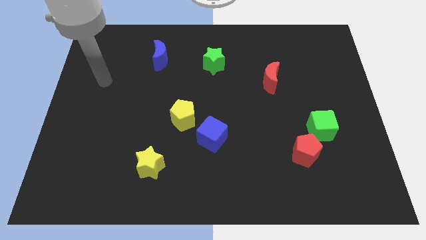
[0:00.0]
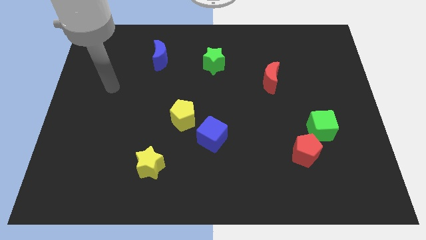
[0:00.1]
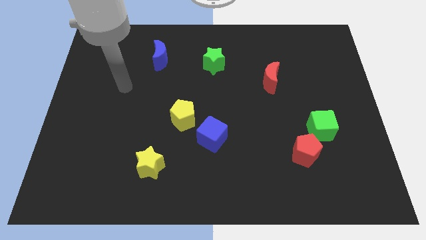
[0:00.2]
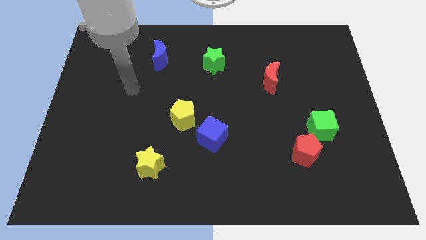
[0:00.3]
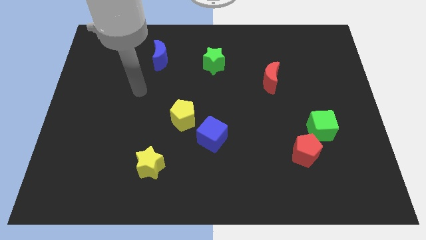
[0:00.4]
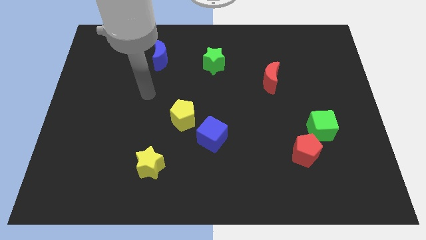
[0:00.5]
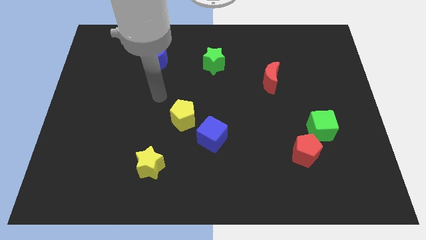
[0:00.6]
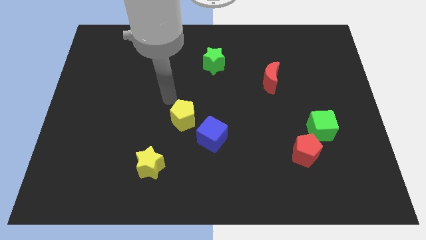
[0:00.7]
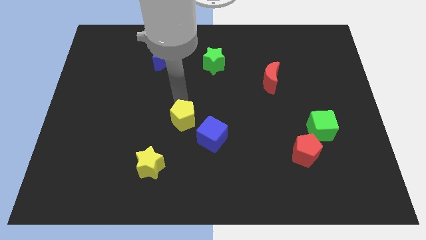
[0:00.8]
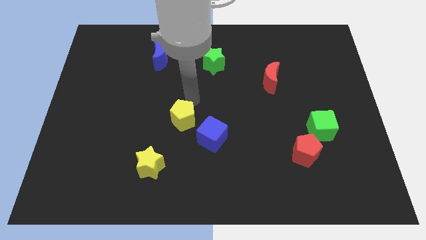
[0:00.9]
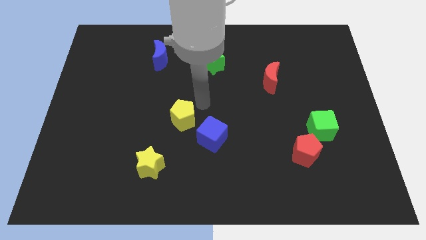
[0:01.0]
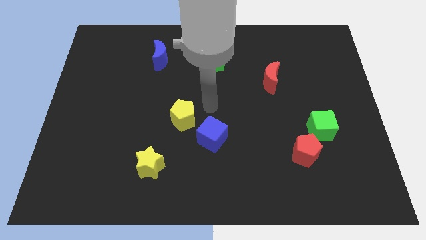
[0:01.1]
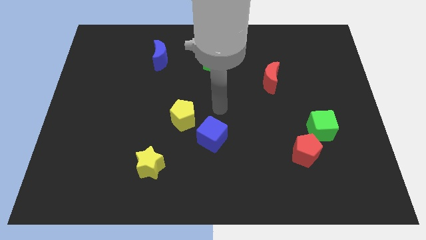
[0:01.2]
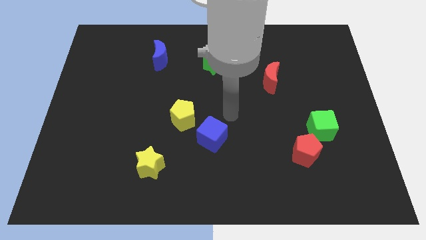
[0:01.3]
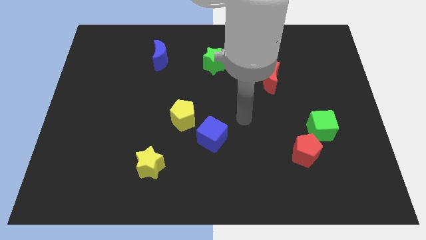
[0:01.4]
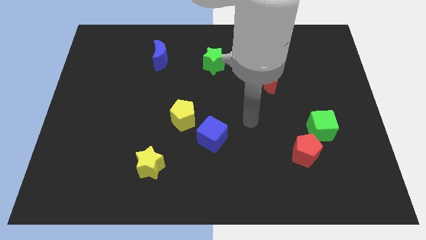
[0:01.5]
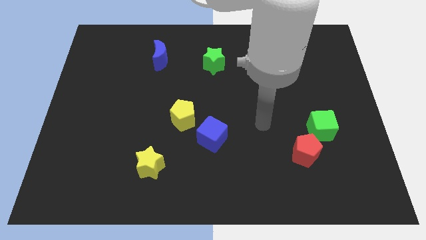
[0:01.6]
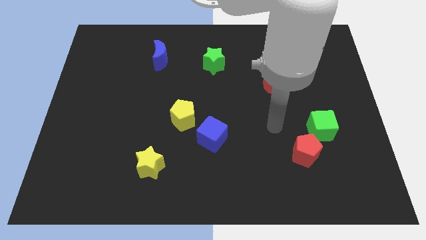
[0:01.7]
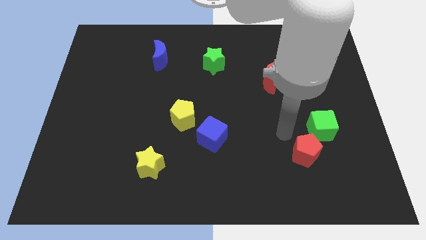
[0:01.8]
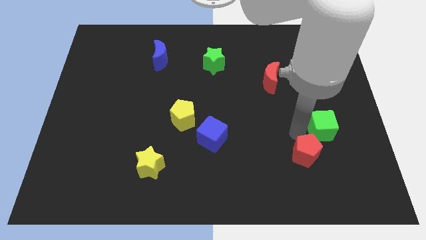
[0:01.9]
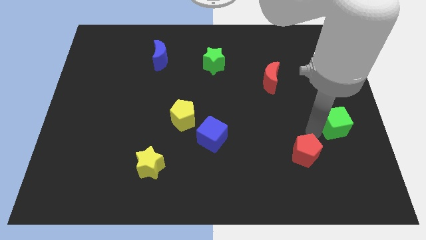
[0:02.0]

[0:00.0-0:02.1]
move the red pentagon away from the green cube

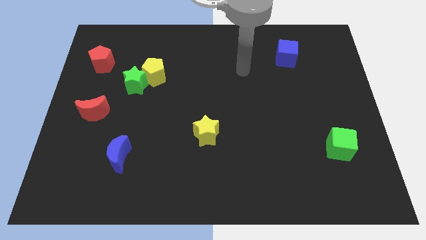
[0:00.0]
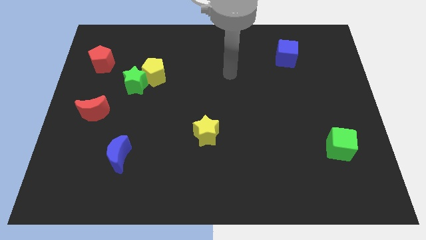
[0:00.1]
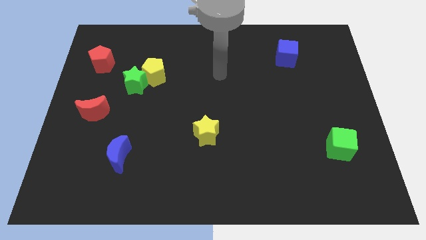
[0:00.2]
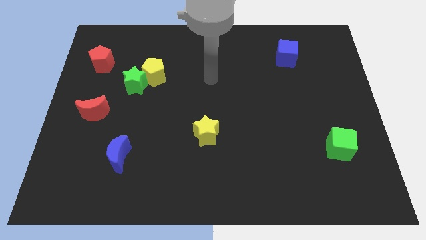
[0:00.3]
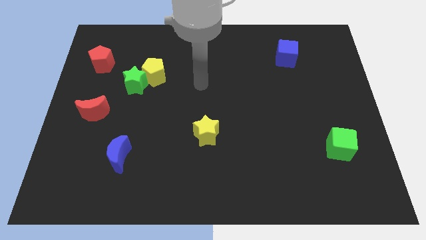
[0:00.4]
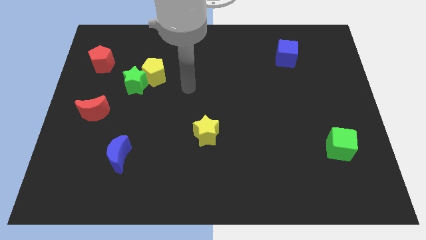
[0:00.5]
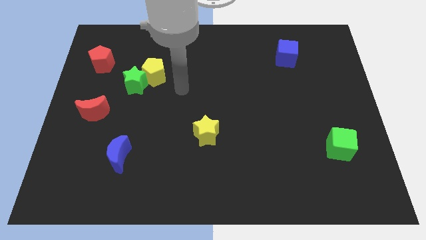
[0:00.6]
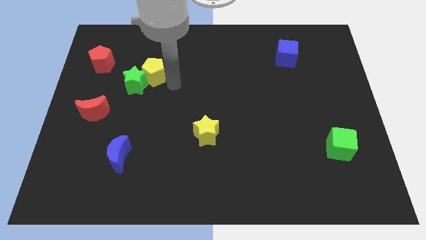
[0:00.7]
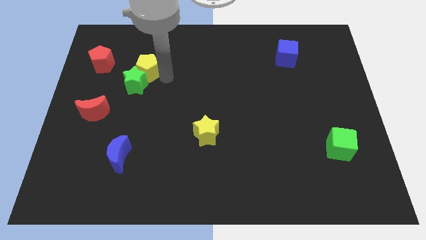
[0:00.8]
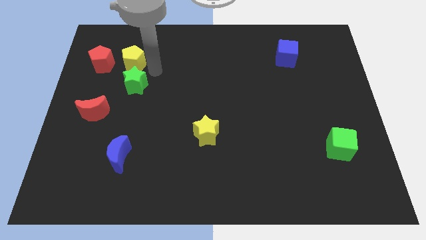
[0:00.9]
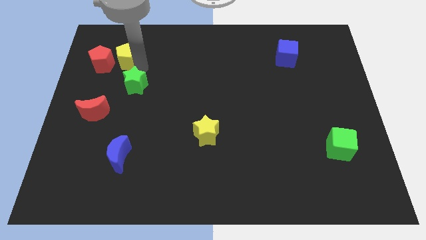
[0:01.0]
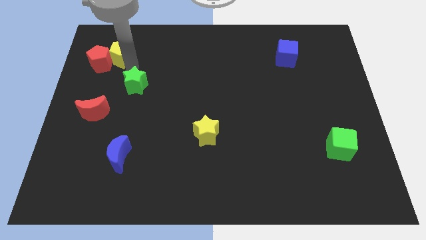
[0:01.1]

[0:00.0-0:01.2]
pull the green star apart from the yellow pentagon

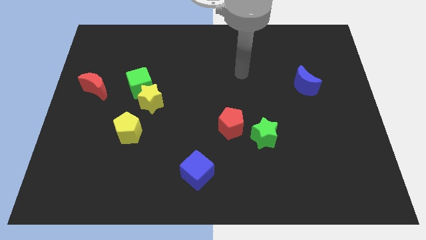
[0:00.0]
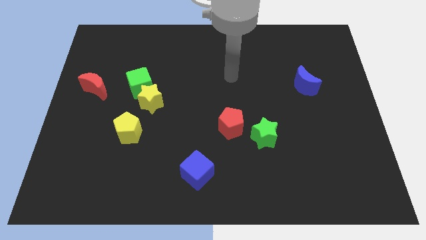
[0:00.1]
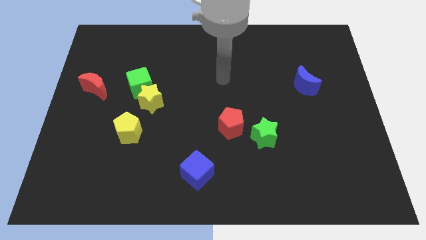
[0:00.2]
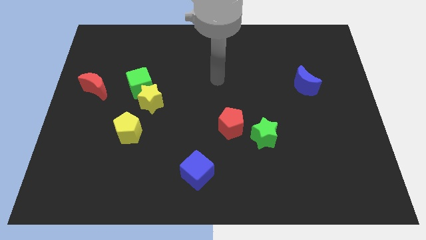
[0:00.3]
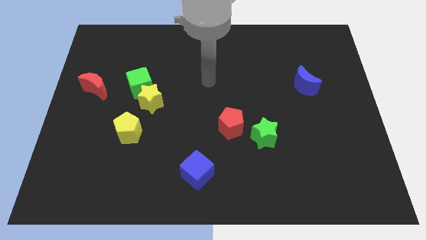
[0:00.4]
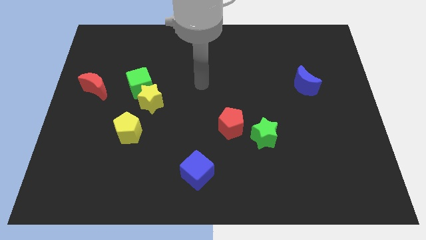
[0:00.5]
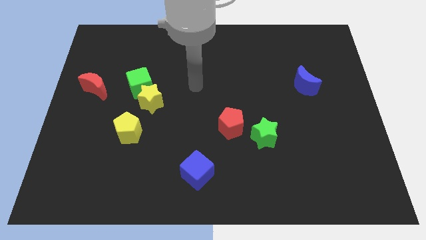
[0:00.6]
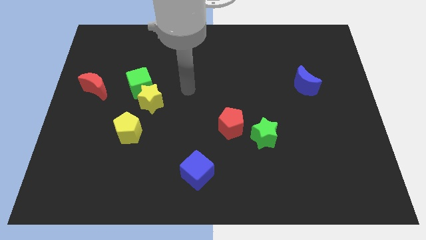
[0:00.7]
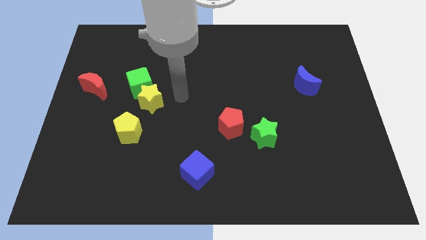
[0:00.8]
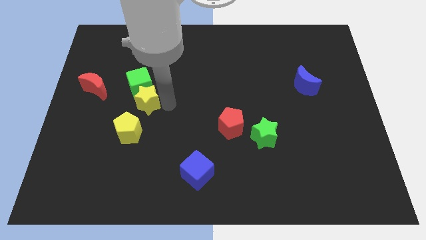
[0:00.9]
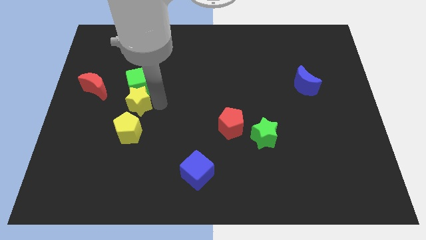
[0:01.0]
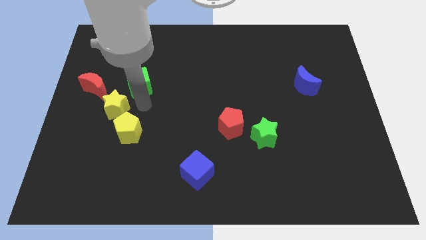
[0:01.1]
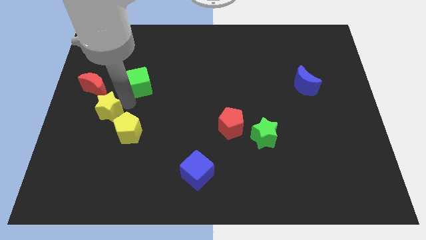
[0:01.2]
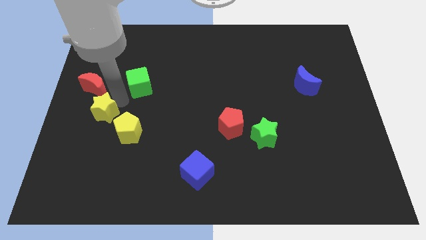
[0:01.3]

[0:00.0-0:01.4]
separate the green cube from the yellow star

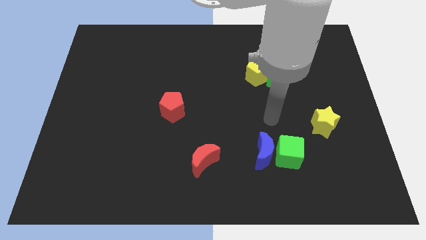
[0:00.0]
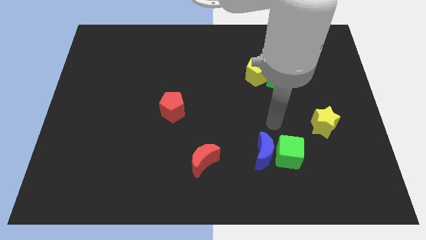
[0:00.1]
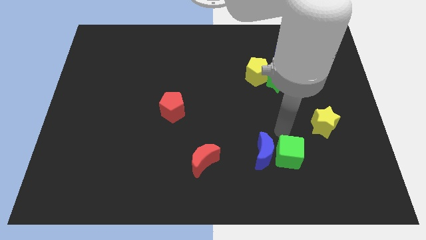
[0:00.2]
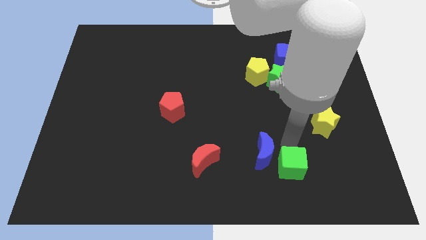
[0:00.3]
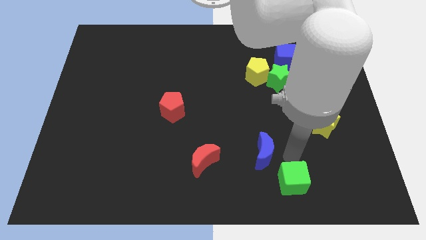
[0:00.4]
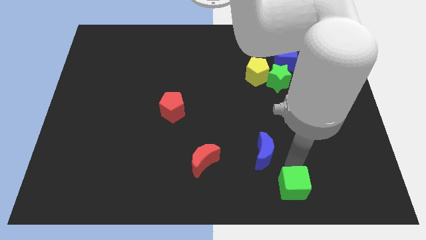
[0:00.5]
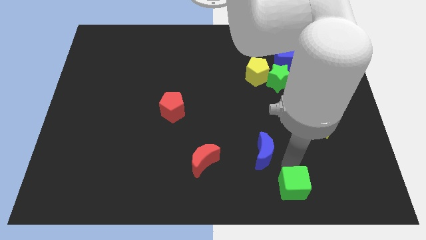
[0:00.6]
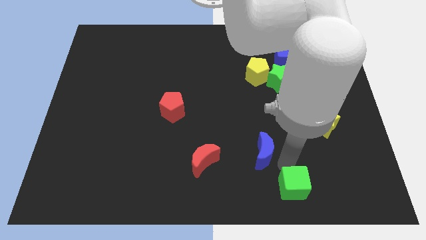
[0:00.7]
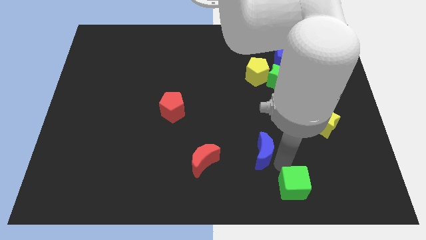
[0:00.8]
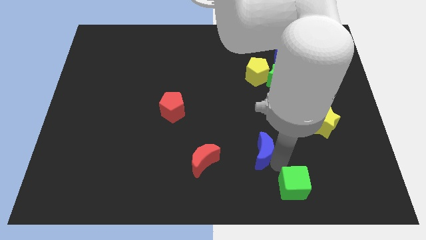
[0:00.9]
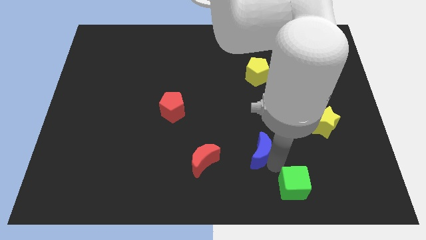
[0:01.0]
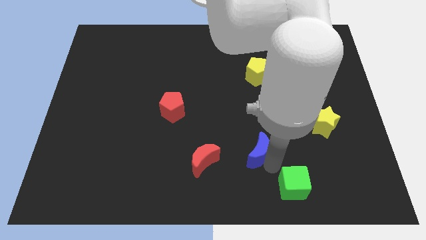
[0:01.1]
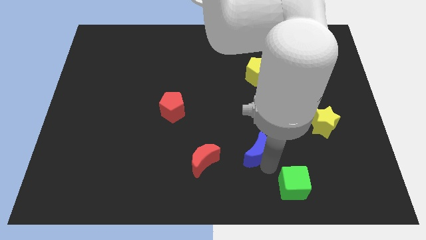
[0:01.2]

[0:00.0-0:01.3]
move the blue moon away from the green cube

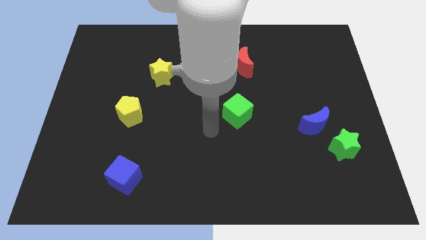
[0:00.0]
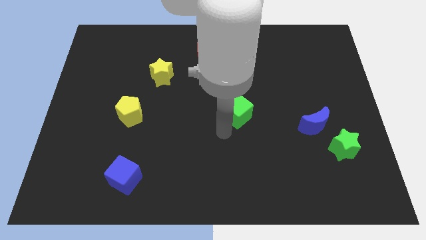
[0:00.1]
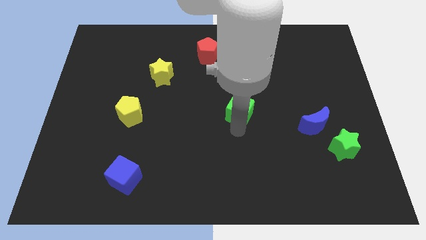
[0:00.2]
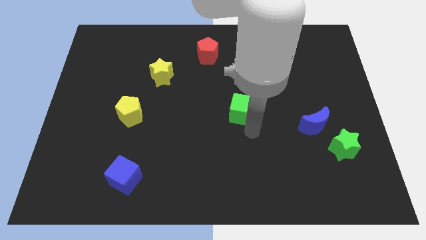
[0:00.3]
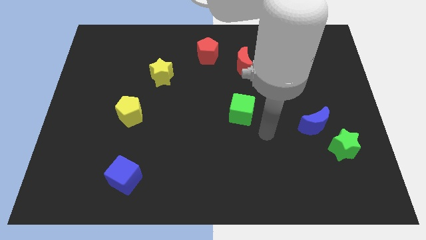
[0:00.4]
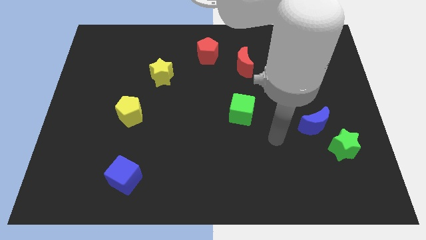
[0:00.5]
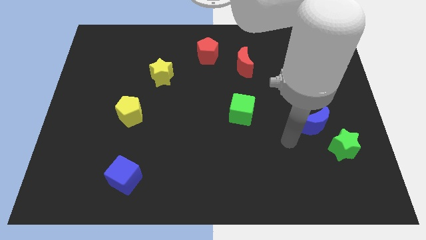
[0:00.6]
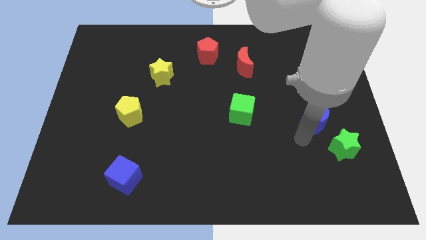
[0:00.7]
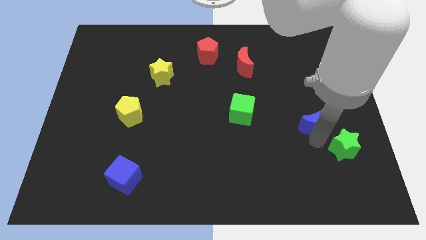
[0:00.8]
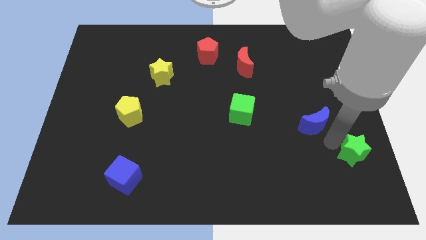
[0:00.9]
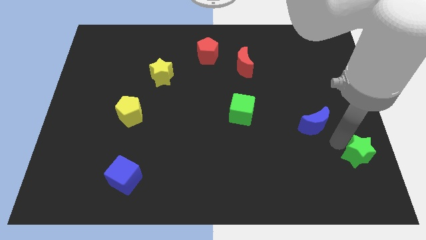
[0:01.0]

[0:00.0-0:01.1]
separate the blue moon from the green star

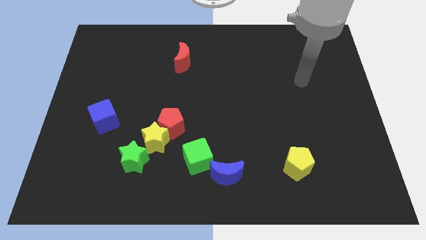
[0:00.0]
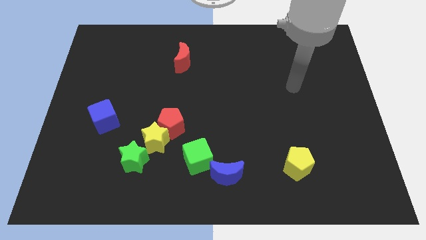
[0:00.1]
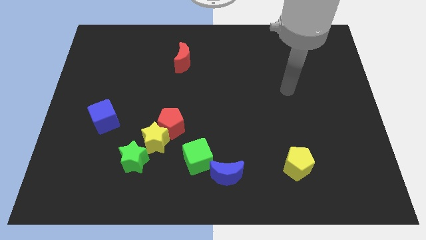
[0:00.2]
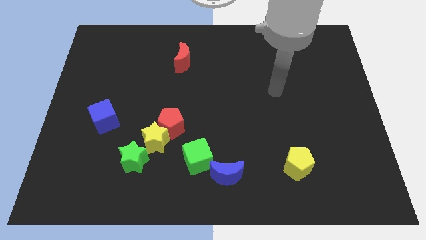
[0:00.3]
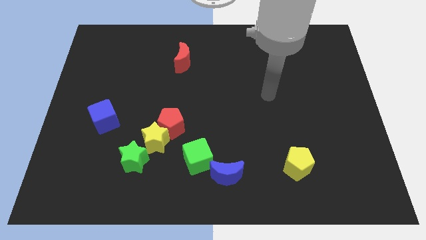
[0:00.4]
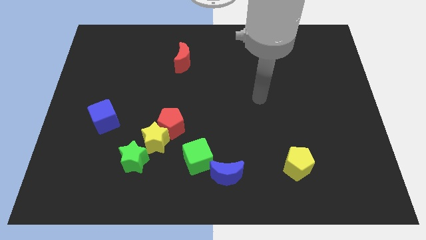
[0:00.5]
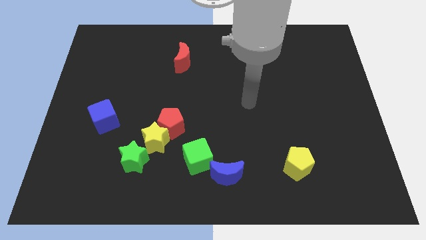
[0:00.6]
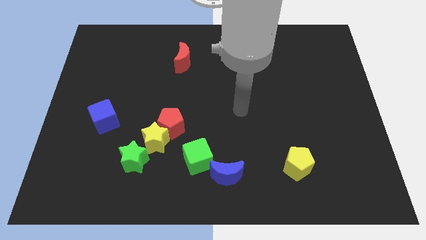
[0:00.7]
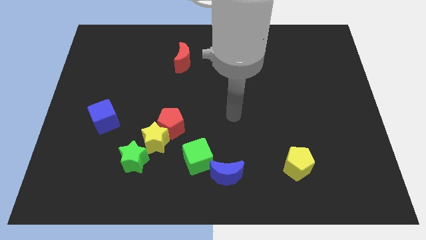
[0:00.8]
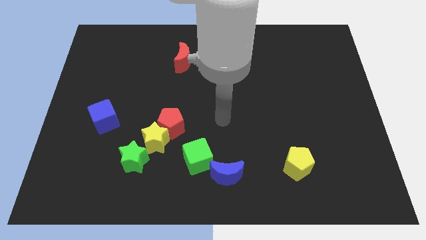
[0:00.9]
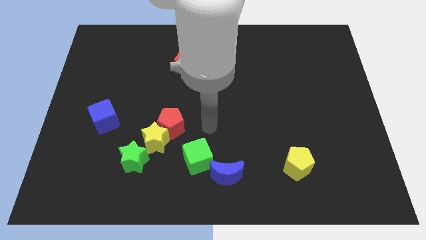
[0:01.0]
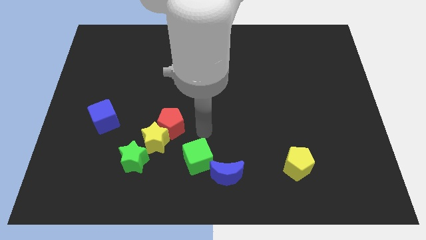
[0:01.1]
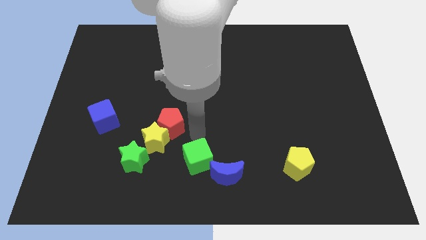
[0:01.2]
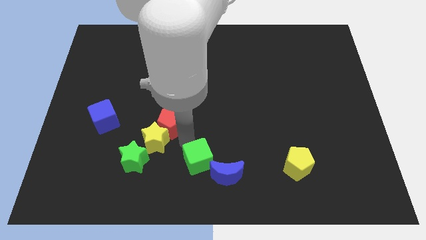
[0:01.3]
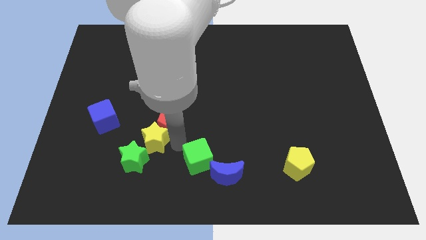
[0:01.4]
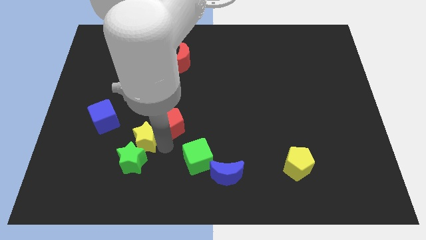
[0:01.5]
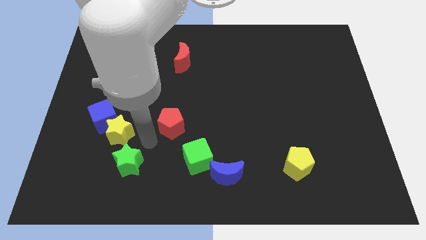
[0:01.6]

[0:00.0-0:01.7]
move the red pentagon away from the yellow star

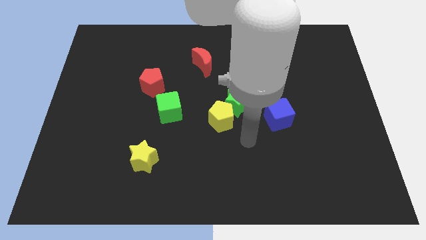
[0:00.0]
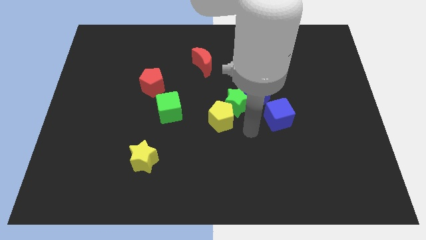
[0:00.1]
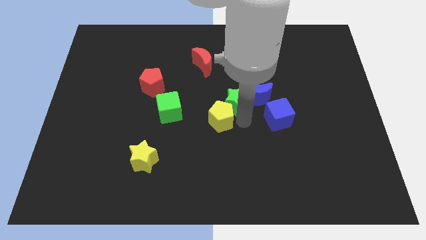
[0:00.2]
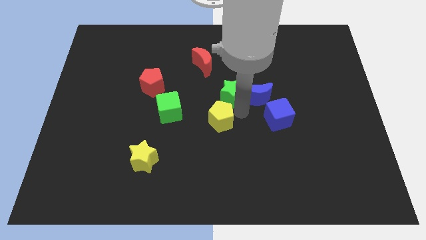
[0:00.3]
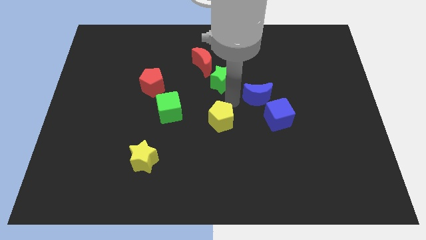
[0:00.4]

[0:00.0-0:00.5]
move the yellow pentagon away from the green star
